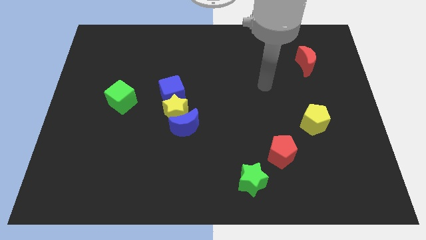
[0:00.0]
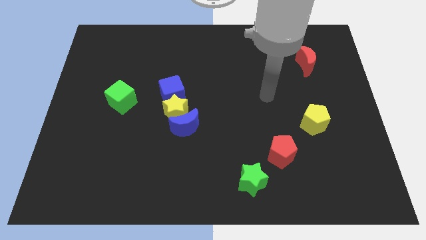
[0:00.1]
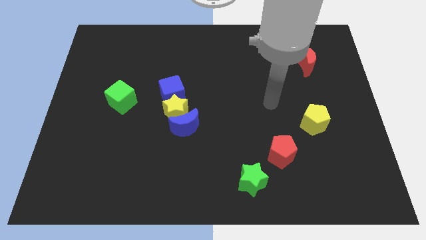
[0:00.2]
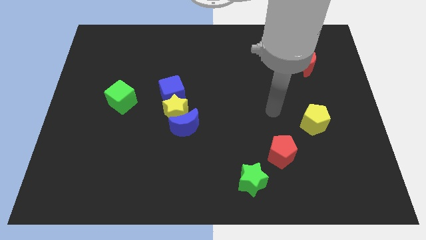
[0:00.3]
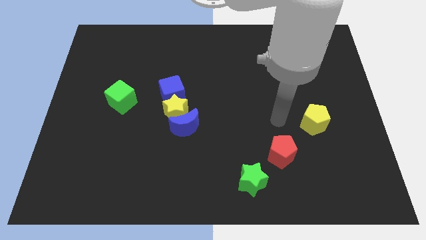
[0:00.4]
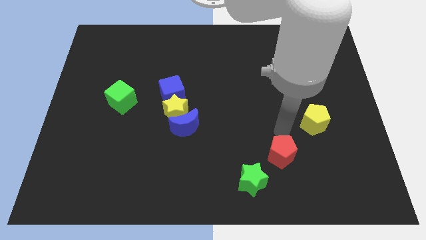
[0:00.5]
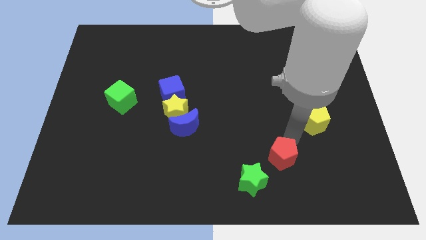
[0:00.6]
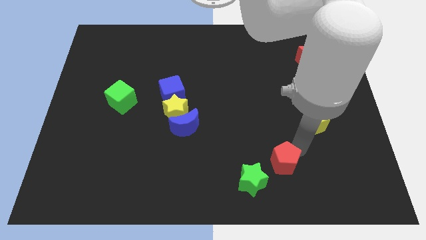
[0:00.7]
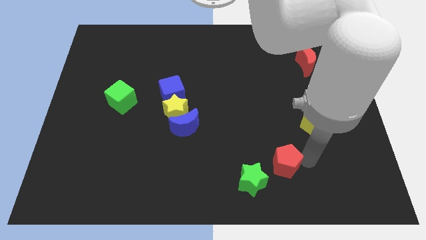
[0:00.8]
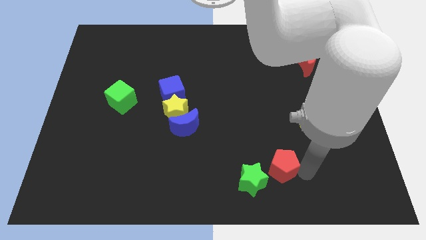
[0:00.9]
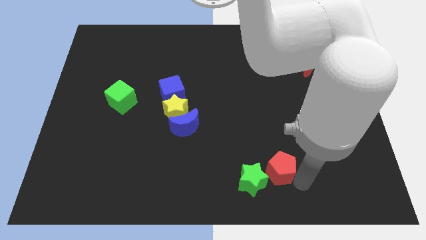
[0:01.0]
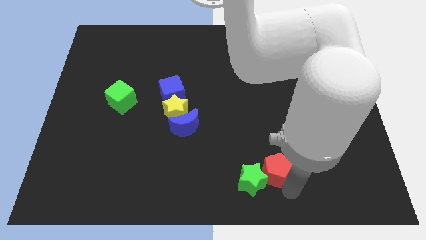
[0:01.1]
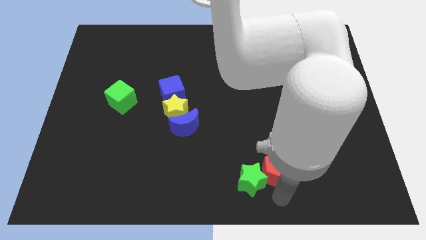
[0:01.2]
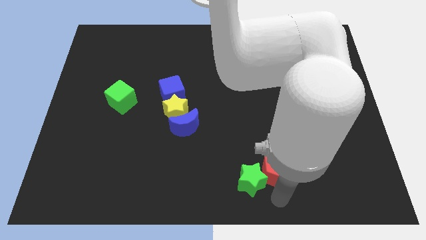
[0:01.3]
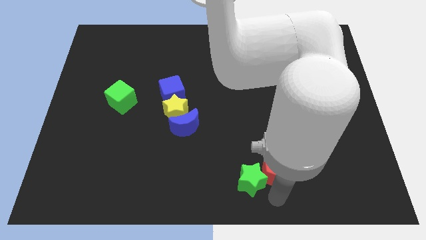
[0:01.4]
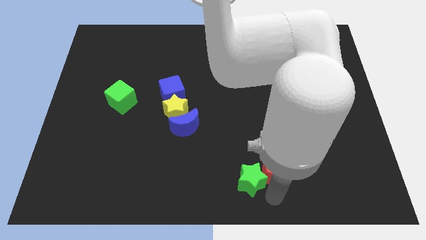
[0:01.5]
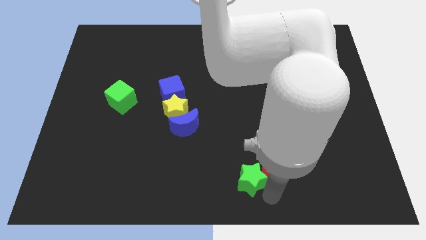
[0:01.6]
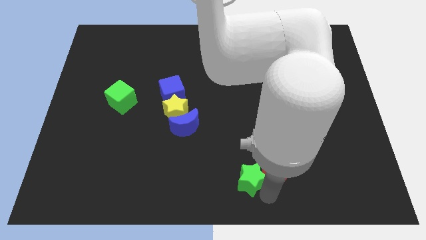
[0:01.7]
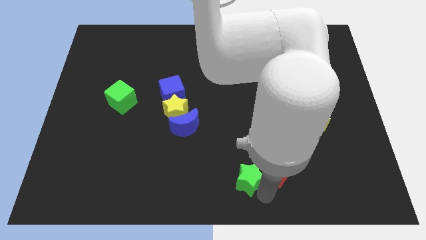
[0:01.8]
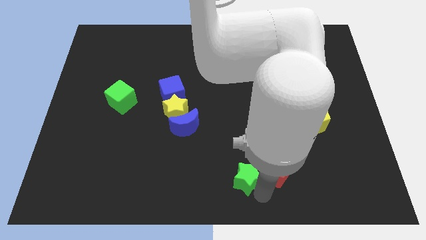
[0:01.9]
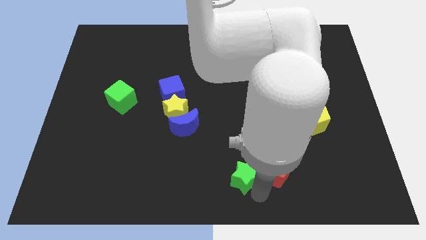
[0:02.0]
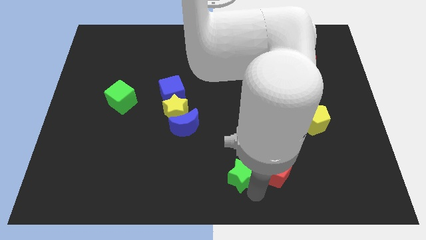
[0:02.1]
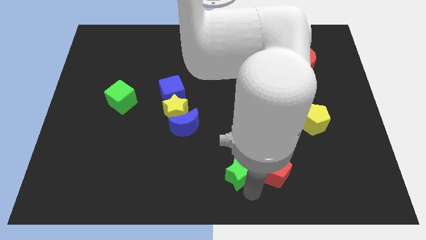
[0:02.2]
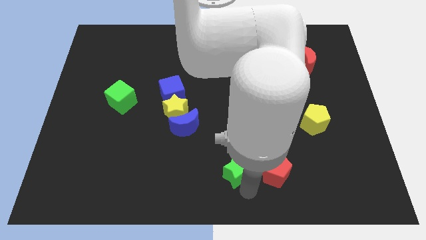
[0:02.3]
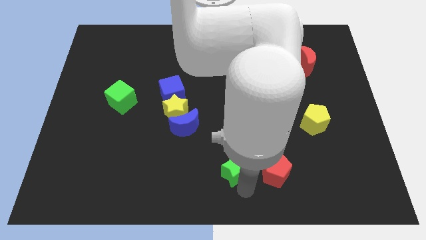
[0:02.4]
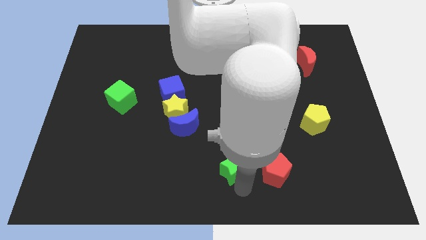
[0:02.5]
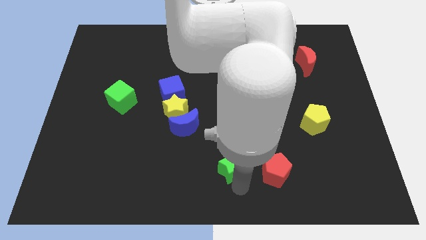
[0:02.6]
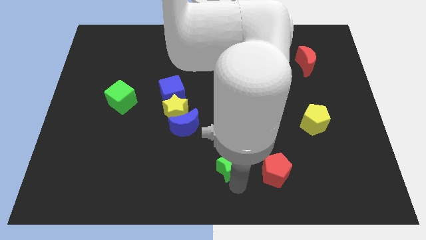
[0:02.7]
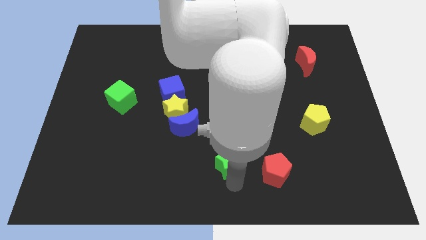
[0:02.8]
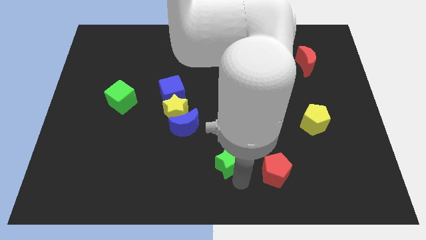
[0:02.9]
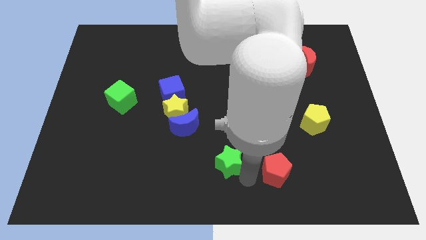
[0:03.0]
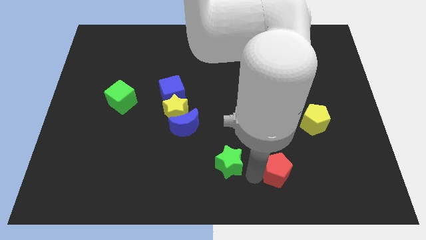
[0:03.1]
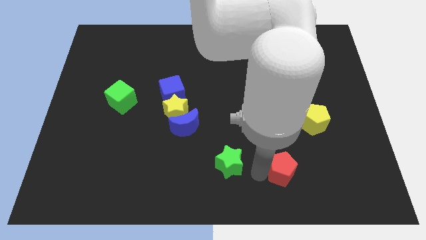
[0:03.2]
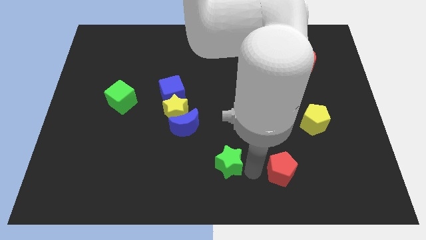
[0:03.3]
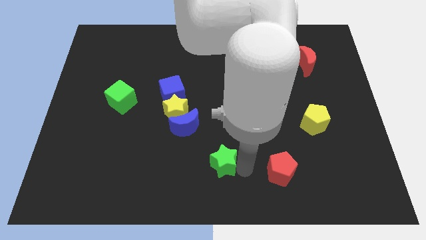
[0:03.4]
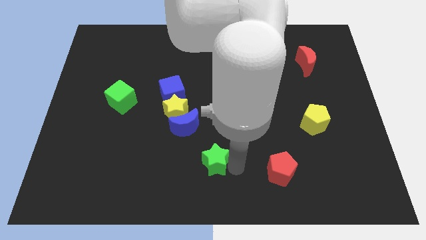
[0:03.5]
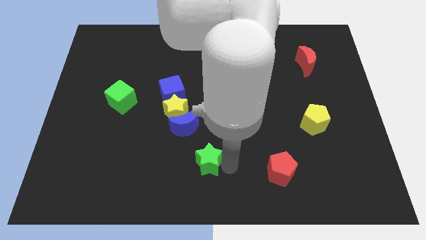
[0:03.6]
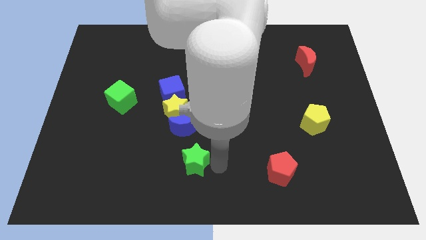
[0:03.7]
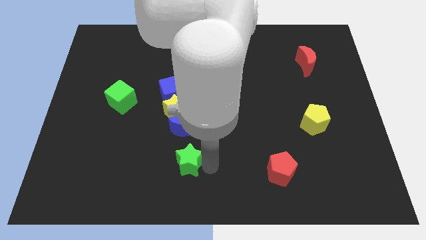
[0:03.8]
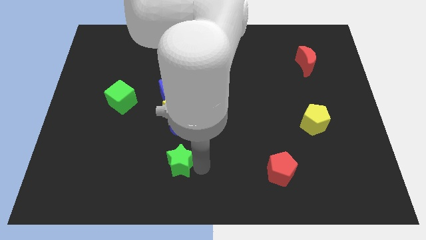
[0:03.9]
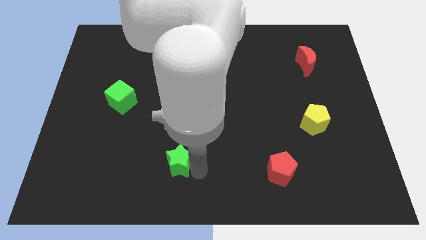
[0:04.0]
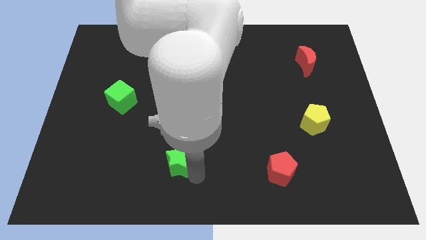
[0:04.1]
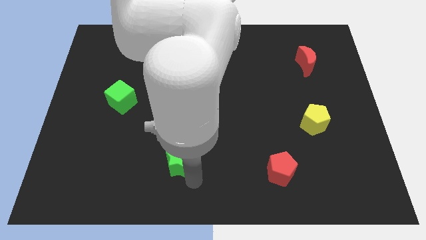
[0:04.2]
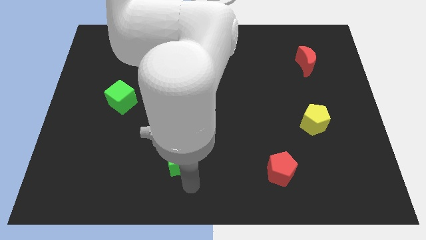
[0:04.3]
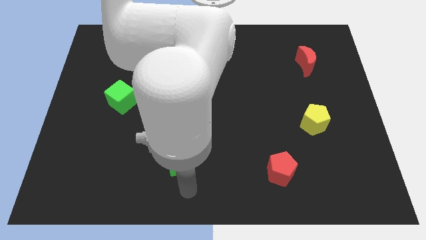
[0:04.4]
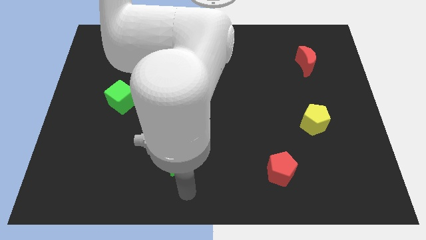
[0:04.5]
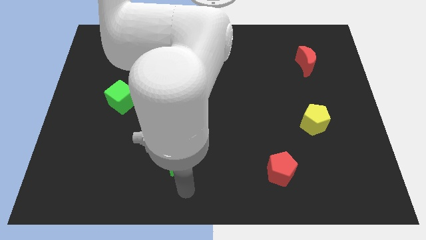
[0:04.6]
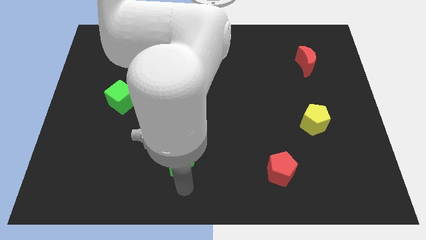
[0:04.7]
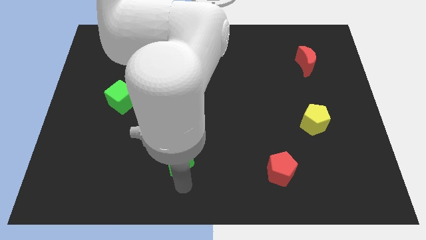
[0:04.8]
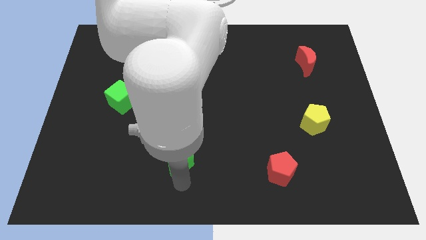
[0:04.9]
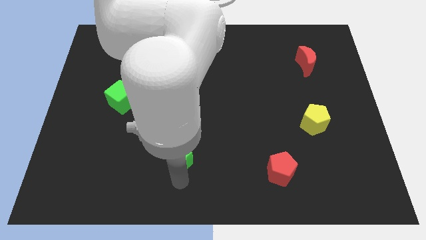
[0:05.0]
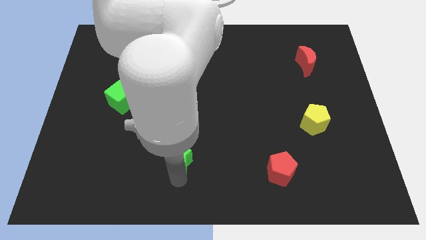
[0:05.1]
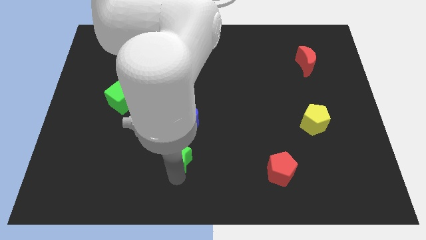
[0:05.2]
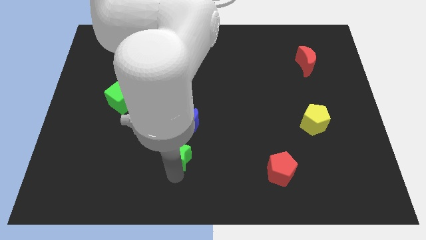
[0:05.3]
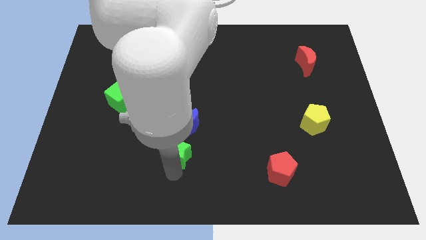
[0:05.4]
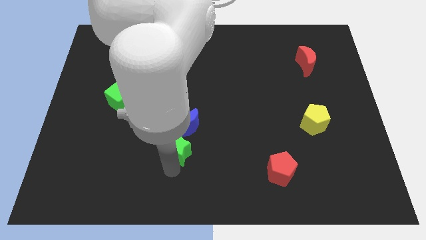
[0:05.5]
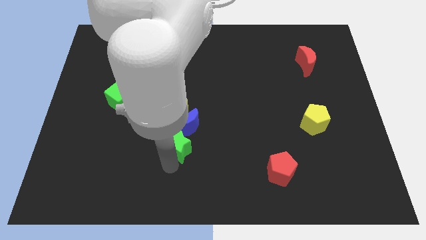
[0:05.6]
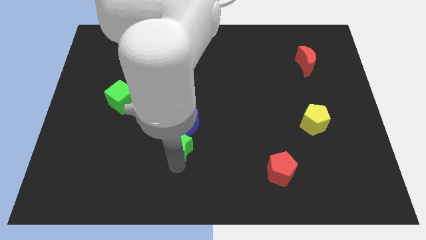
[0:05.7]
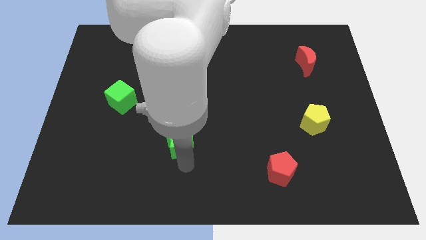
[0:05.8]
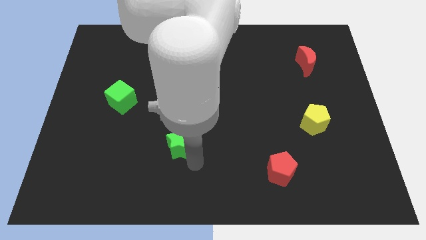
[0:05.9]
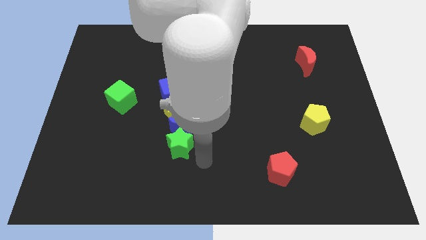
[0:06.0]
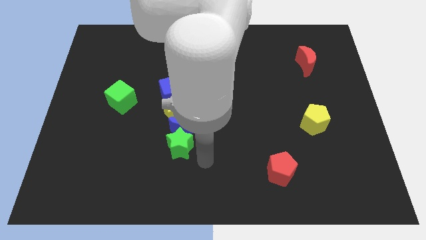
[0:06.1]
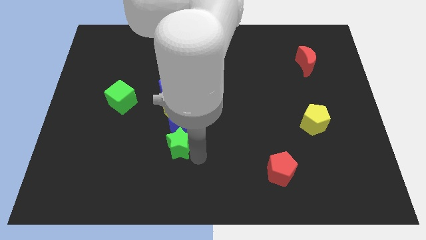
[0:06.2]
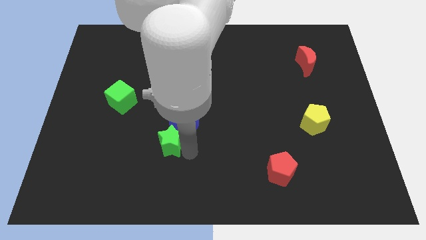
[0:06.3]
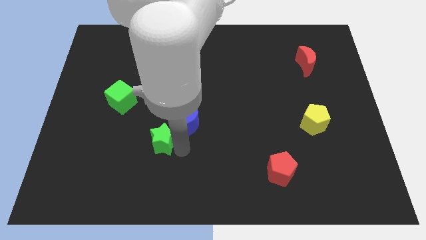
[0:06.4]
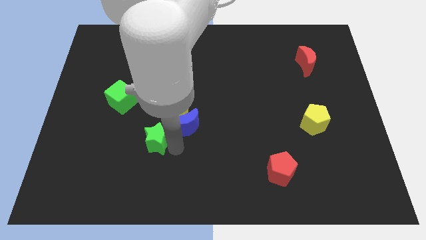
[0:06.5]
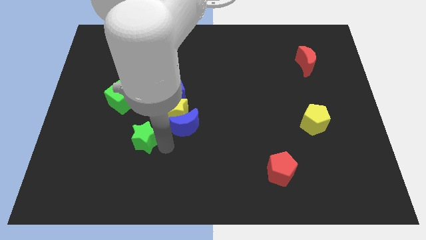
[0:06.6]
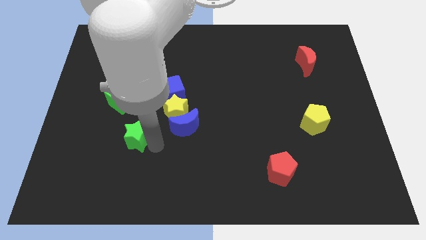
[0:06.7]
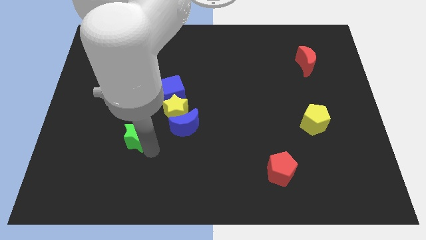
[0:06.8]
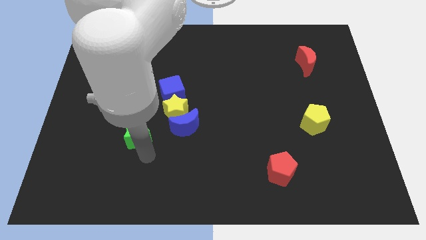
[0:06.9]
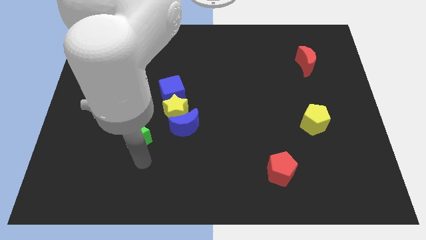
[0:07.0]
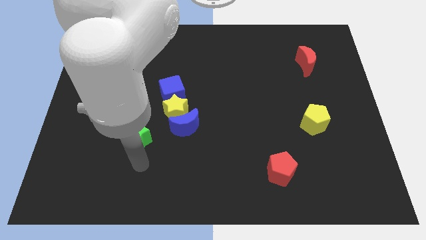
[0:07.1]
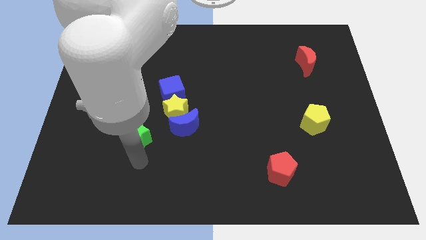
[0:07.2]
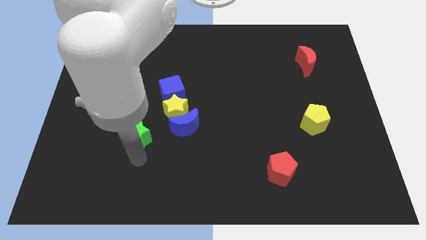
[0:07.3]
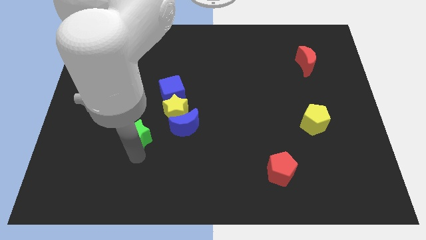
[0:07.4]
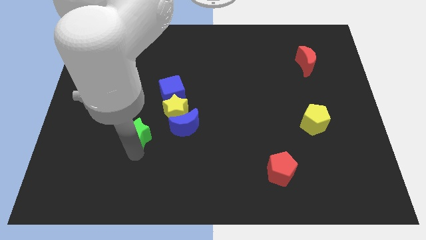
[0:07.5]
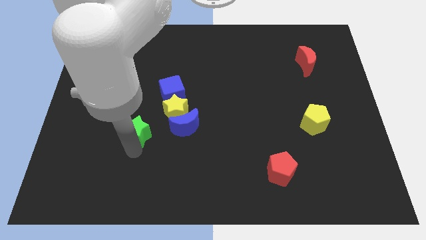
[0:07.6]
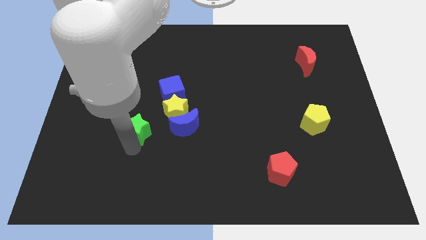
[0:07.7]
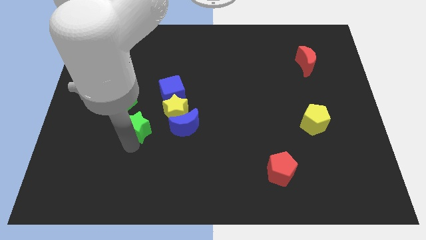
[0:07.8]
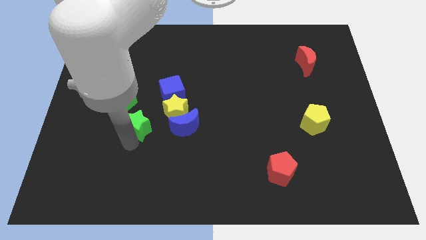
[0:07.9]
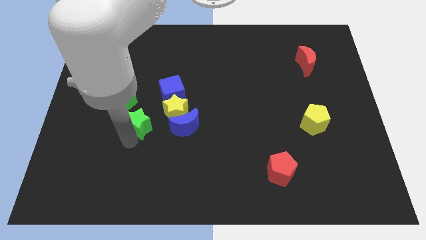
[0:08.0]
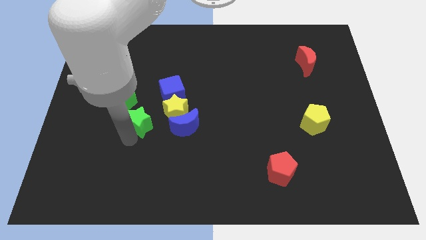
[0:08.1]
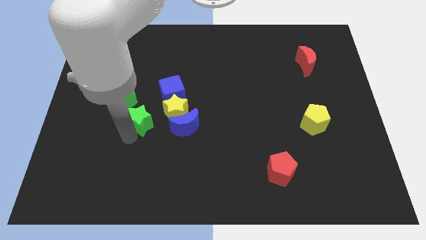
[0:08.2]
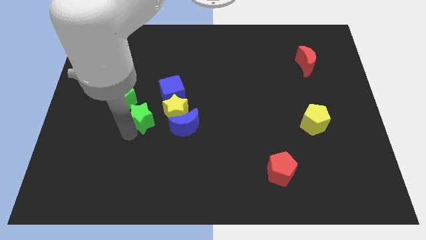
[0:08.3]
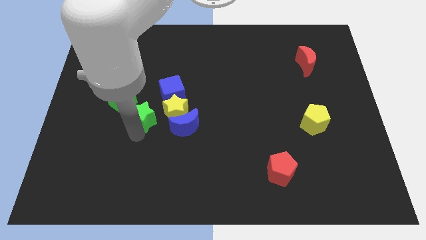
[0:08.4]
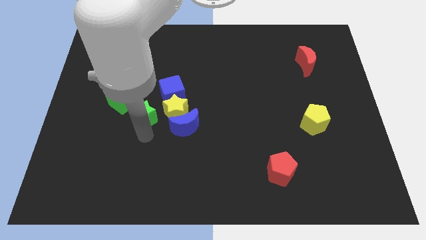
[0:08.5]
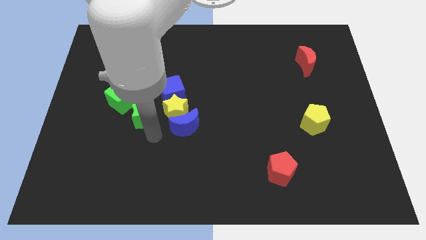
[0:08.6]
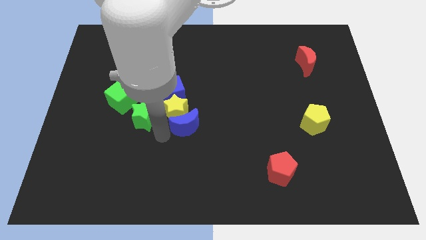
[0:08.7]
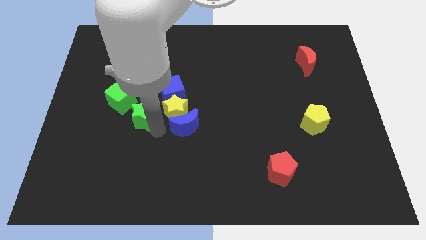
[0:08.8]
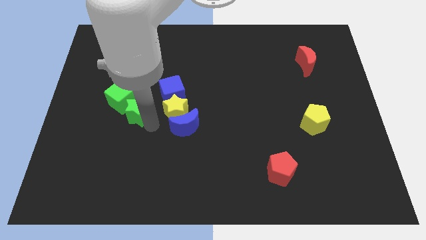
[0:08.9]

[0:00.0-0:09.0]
put the green star close to the green cube
